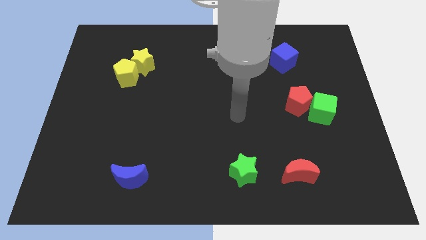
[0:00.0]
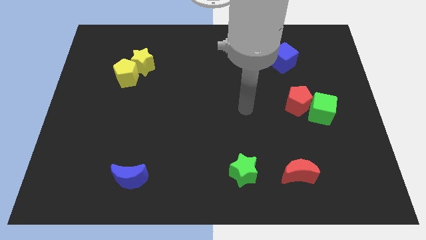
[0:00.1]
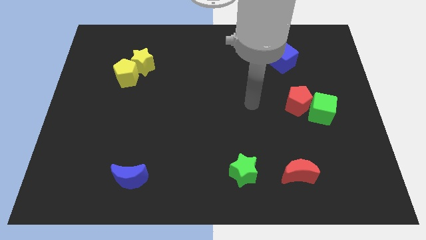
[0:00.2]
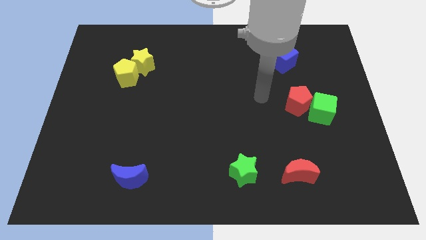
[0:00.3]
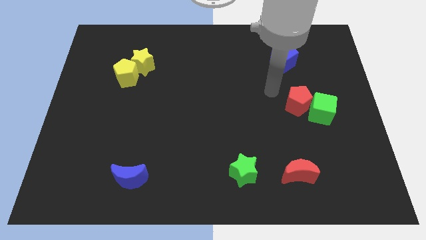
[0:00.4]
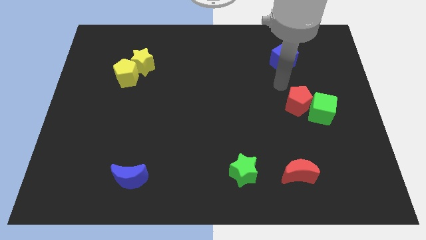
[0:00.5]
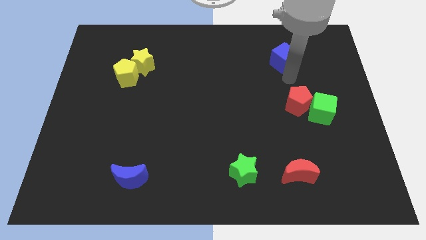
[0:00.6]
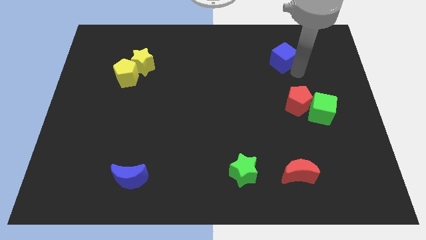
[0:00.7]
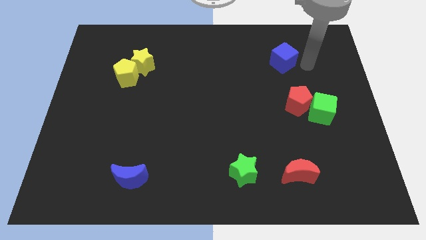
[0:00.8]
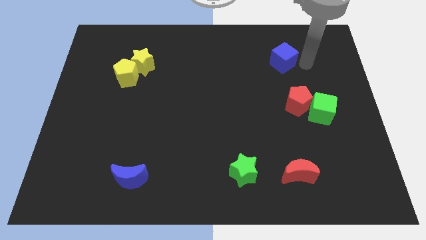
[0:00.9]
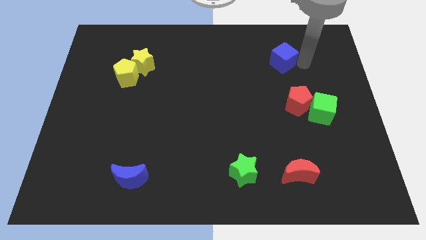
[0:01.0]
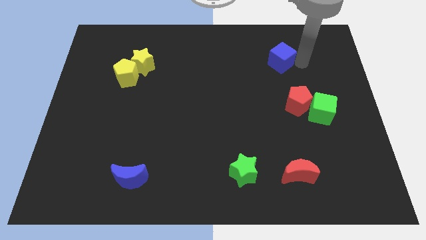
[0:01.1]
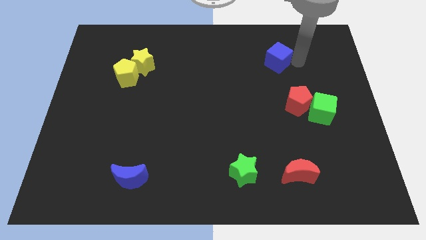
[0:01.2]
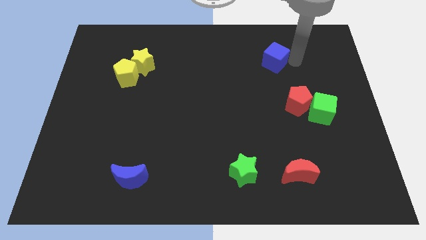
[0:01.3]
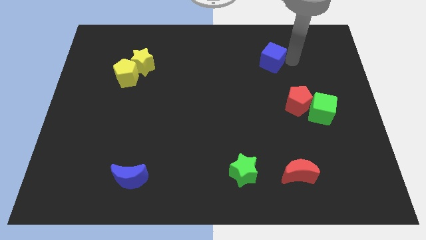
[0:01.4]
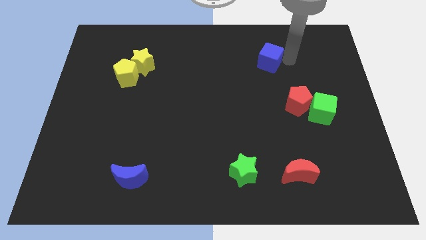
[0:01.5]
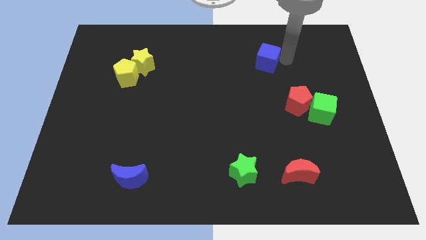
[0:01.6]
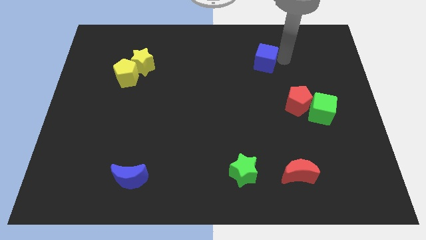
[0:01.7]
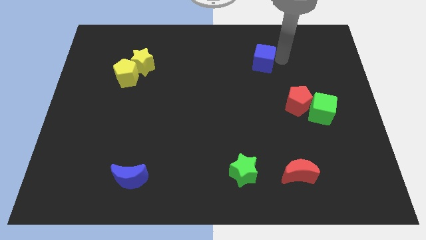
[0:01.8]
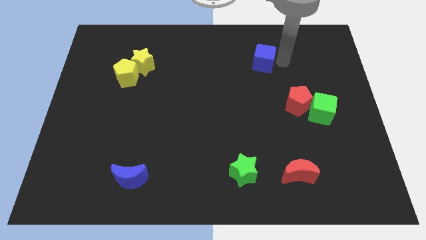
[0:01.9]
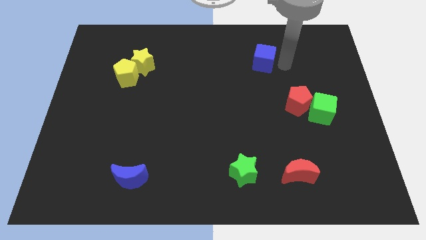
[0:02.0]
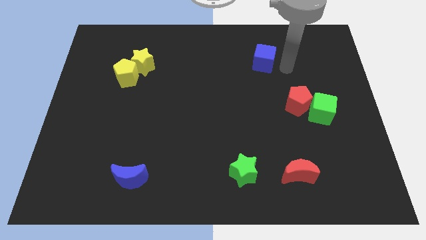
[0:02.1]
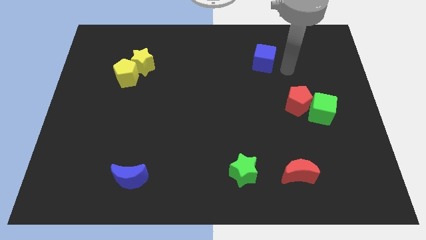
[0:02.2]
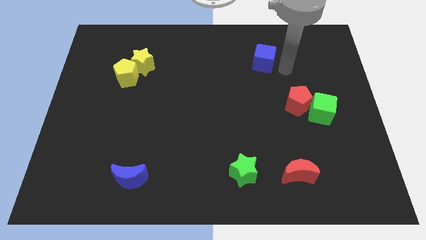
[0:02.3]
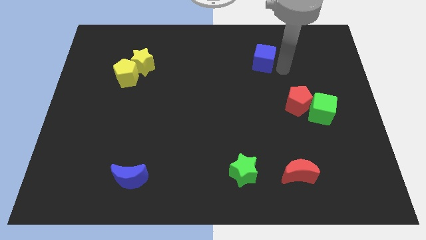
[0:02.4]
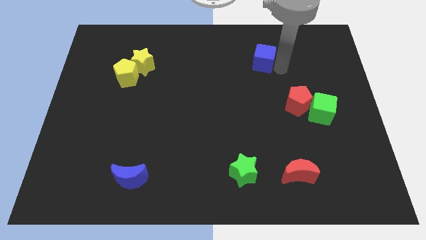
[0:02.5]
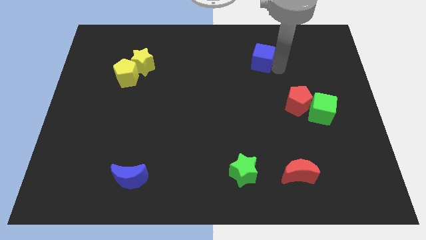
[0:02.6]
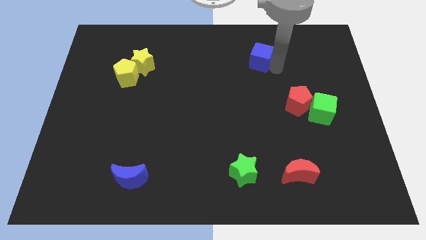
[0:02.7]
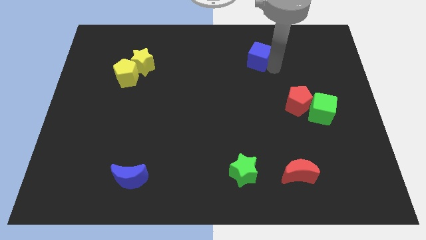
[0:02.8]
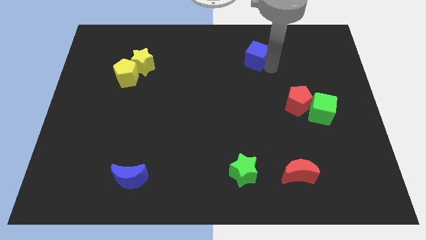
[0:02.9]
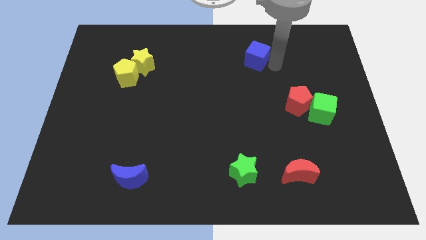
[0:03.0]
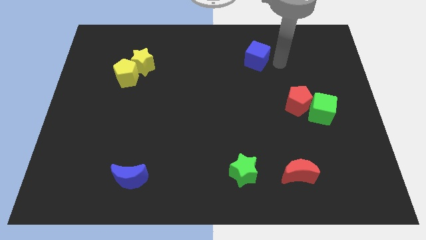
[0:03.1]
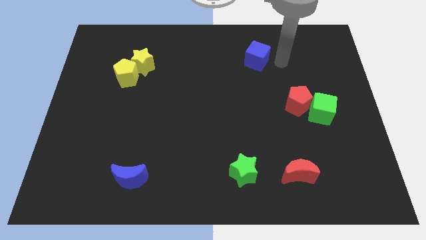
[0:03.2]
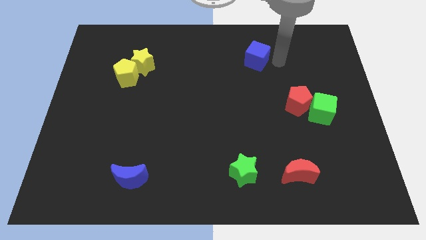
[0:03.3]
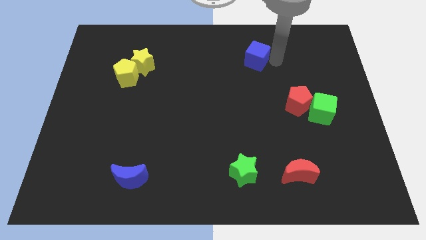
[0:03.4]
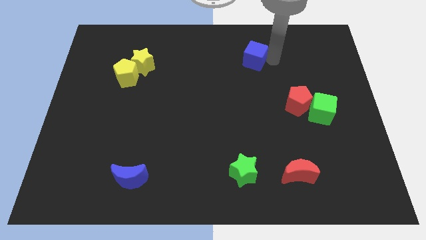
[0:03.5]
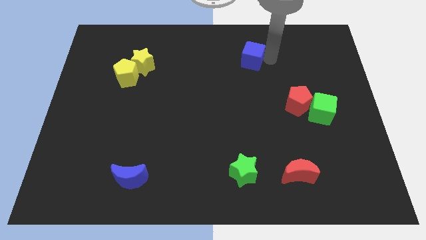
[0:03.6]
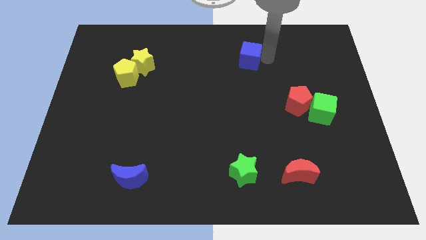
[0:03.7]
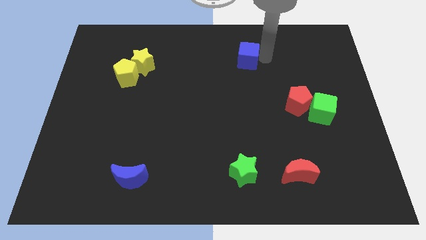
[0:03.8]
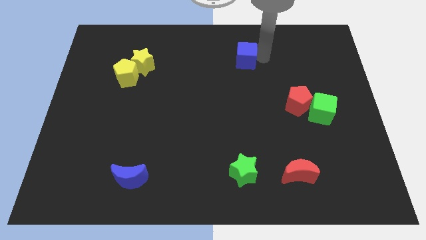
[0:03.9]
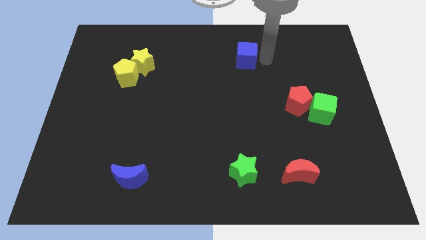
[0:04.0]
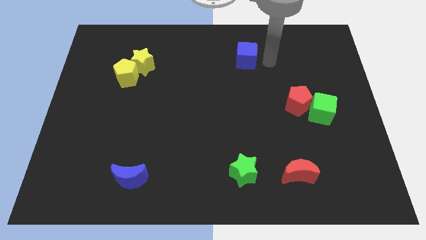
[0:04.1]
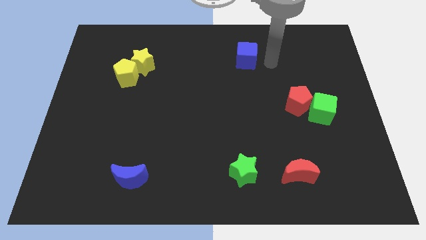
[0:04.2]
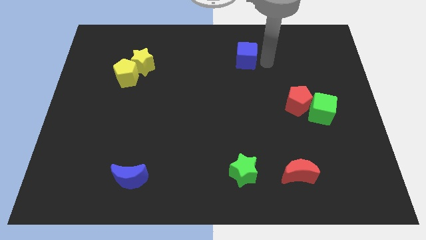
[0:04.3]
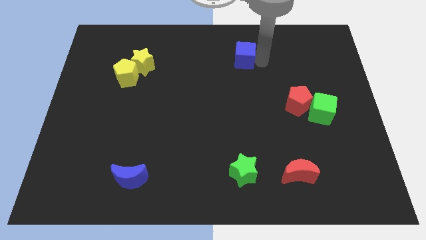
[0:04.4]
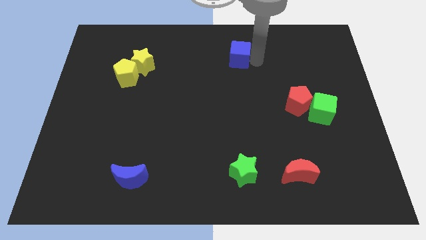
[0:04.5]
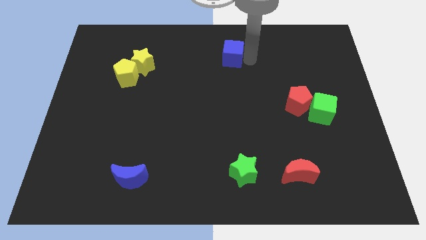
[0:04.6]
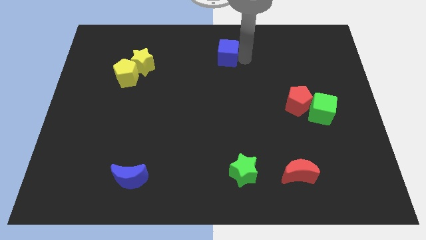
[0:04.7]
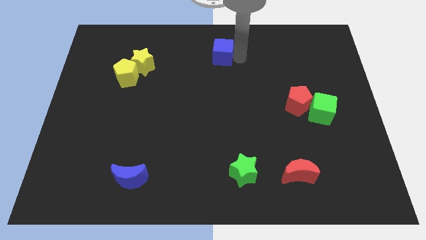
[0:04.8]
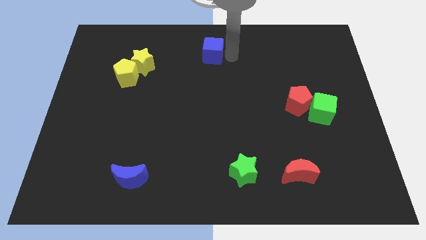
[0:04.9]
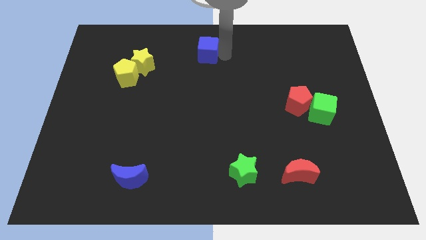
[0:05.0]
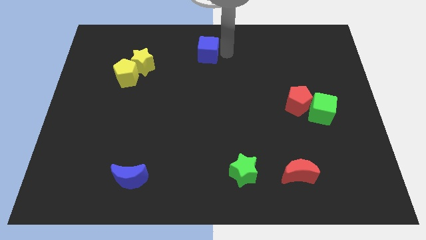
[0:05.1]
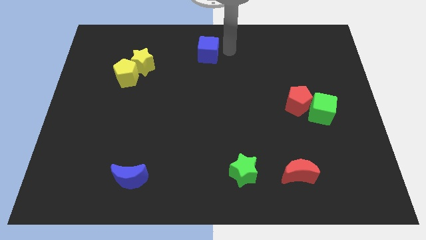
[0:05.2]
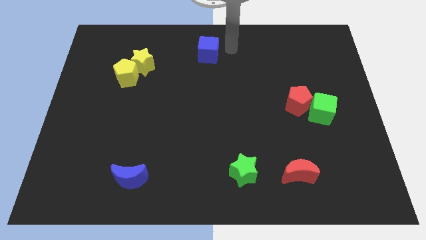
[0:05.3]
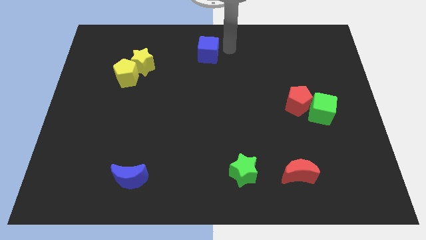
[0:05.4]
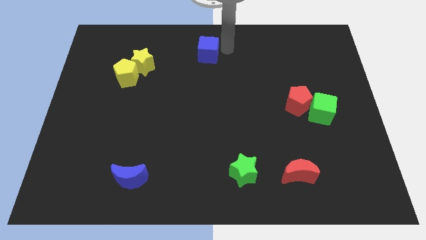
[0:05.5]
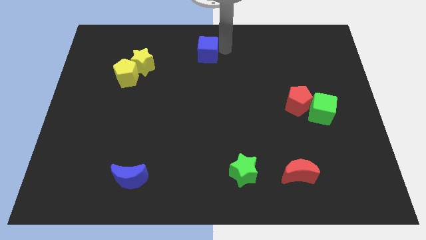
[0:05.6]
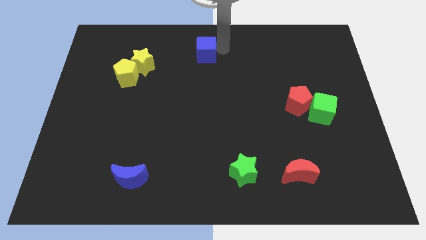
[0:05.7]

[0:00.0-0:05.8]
move the blue cube to the left

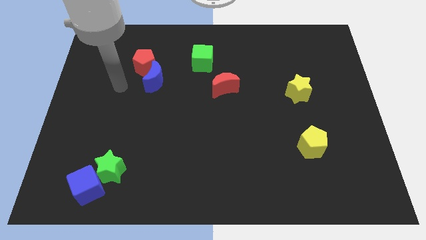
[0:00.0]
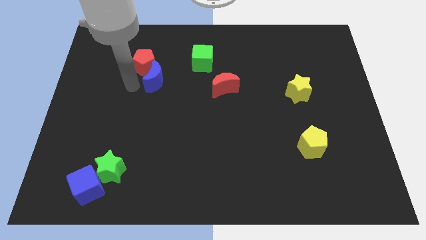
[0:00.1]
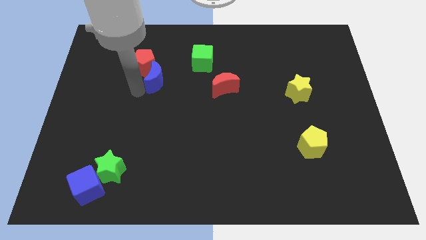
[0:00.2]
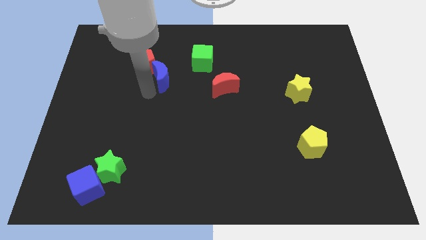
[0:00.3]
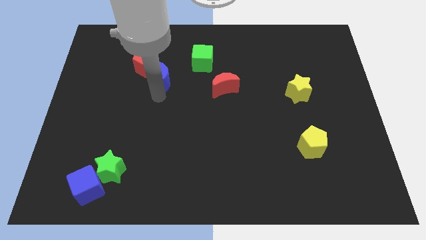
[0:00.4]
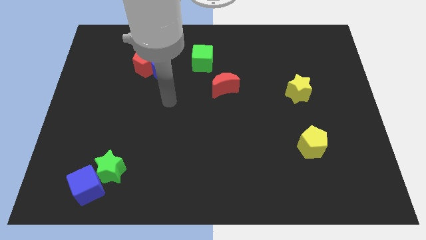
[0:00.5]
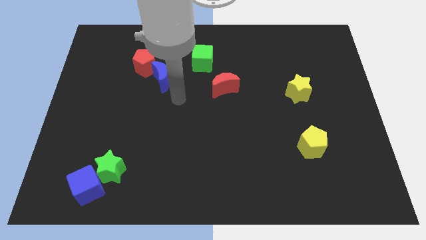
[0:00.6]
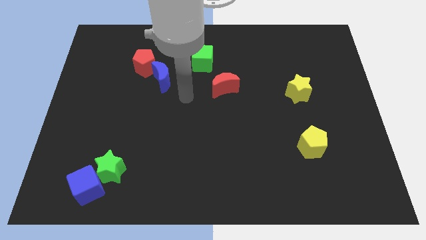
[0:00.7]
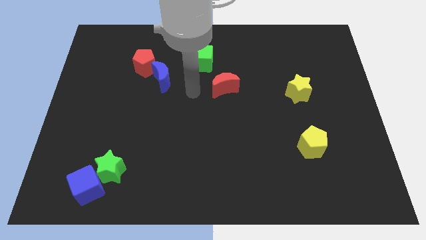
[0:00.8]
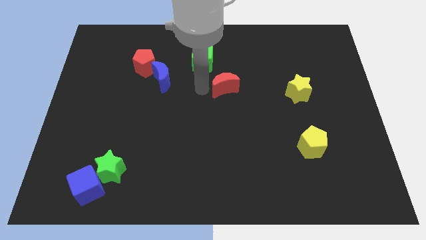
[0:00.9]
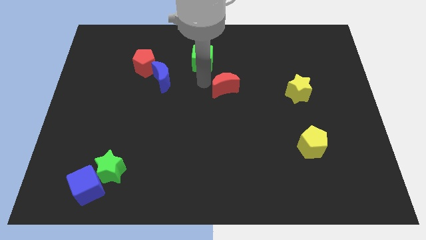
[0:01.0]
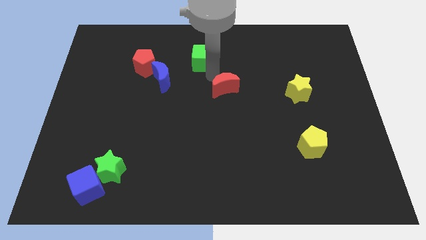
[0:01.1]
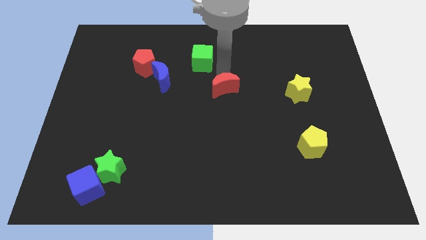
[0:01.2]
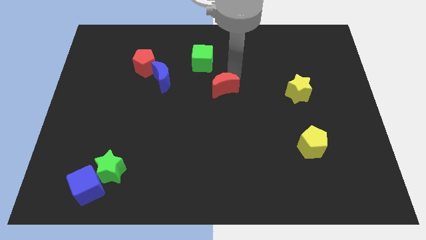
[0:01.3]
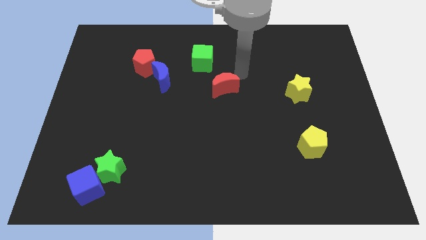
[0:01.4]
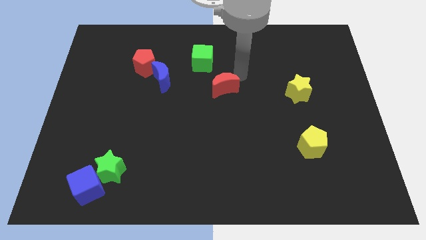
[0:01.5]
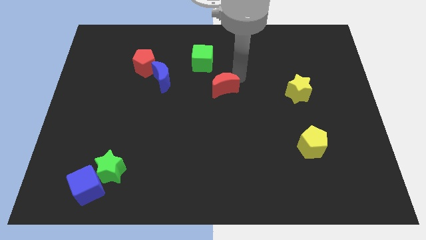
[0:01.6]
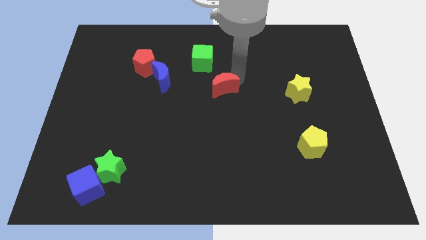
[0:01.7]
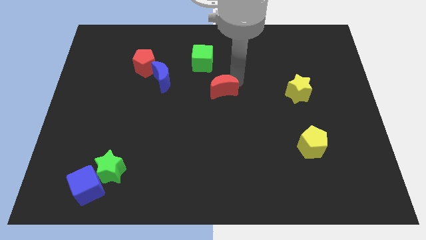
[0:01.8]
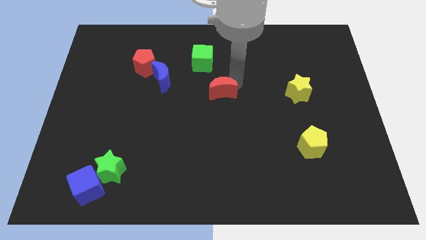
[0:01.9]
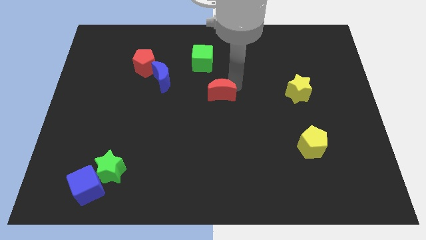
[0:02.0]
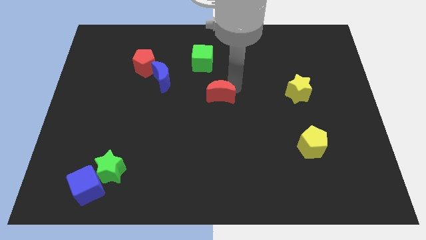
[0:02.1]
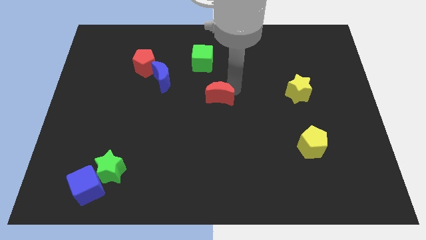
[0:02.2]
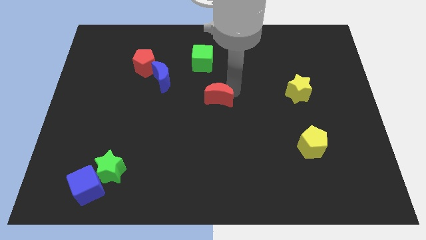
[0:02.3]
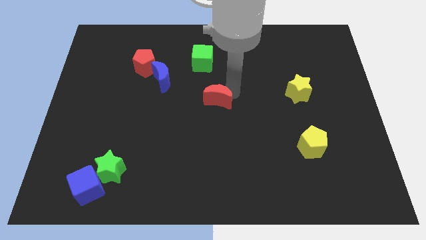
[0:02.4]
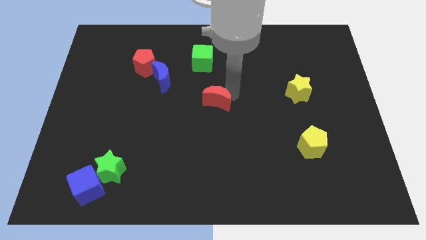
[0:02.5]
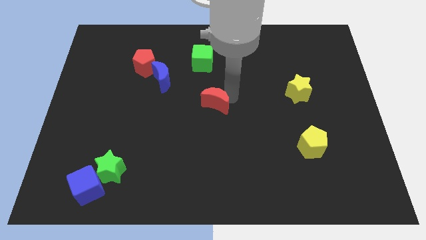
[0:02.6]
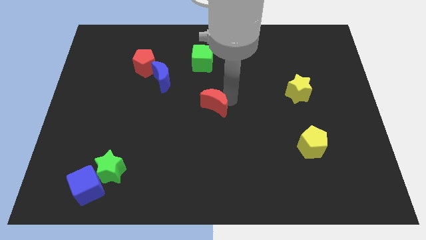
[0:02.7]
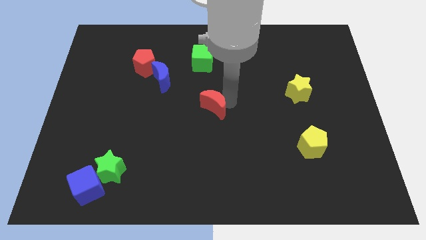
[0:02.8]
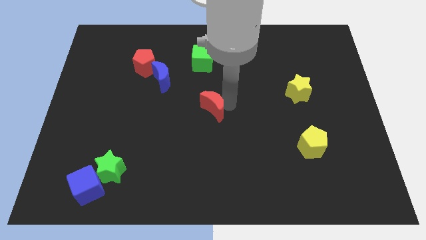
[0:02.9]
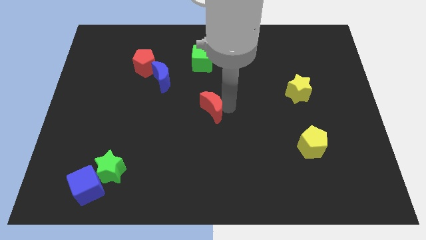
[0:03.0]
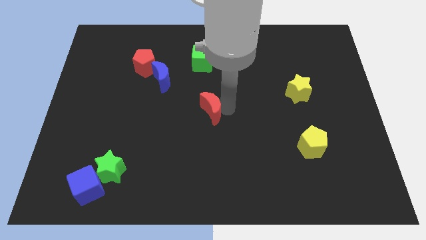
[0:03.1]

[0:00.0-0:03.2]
slightly slide the red moon down and left
